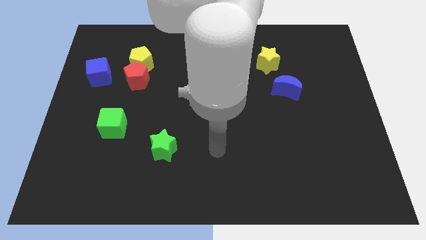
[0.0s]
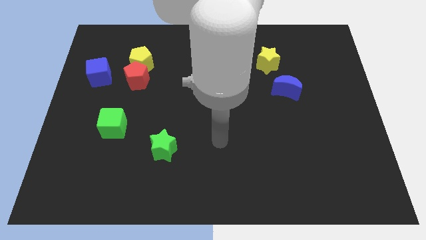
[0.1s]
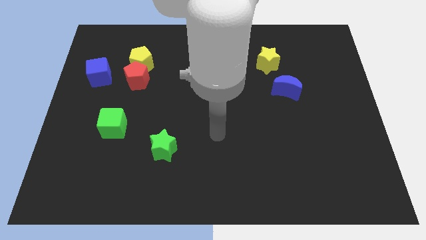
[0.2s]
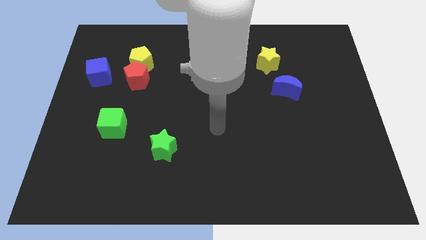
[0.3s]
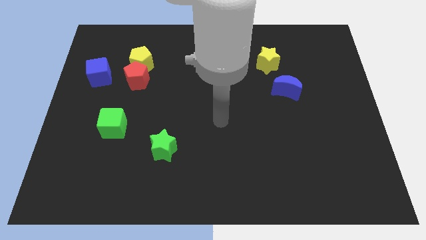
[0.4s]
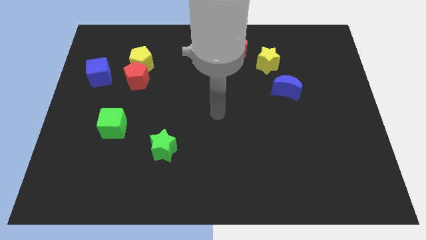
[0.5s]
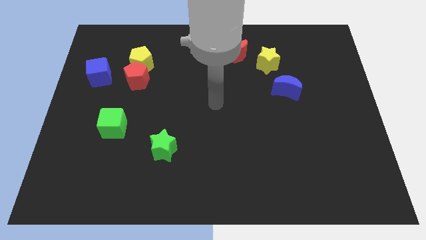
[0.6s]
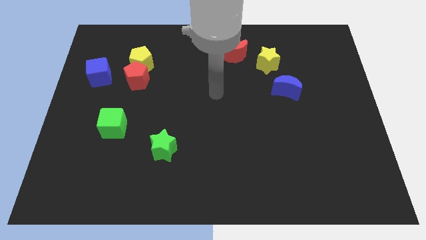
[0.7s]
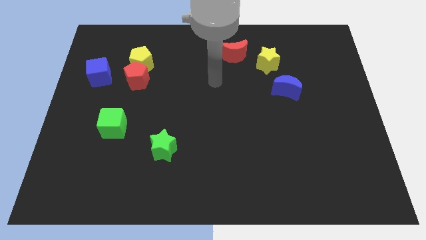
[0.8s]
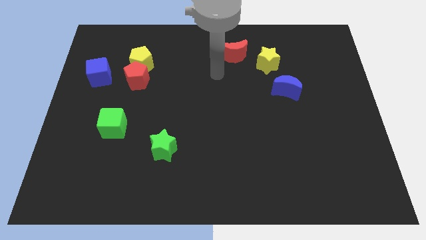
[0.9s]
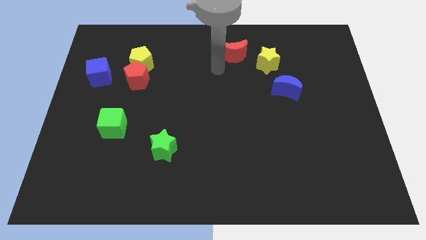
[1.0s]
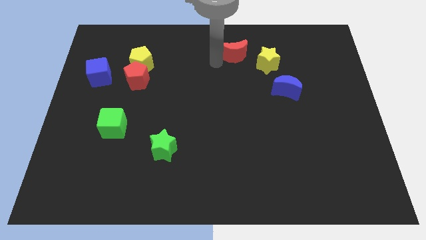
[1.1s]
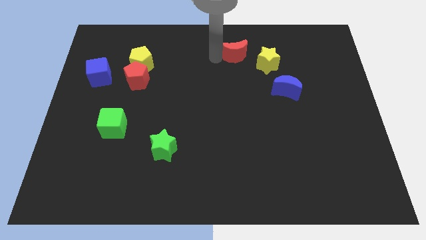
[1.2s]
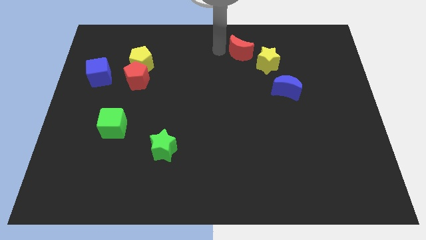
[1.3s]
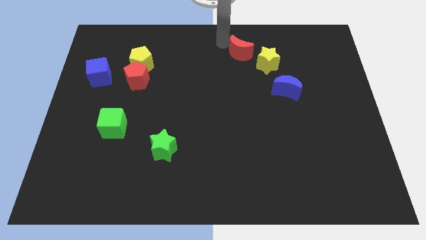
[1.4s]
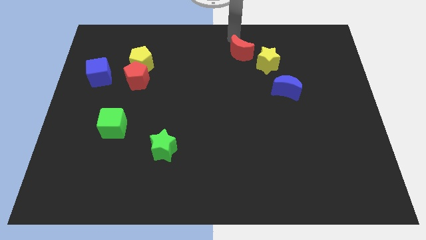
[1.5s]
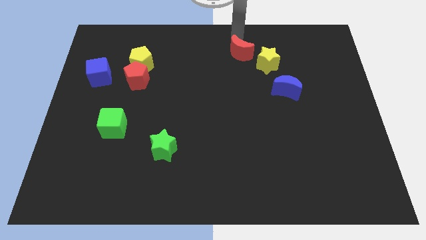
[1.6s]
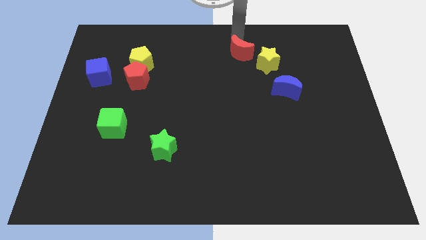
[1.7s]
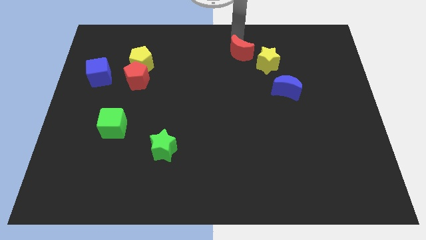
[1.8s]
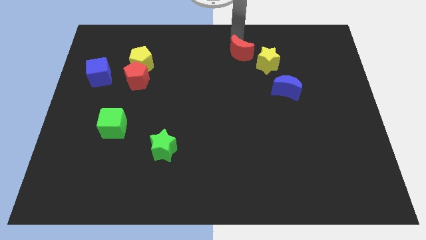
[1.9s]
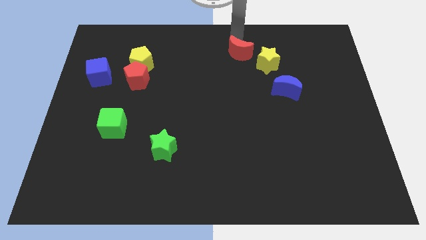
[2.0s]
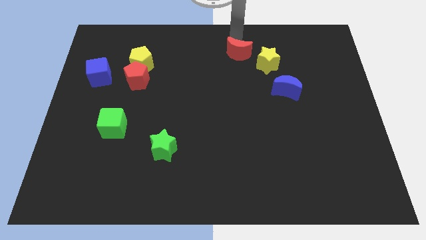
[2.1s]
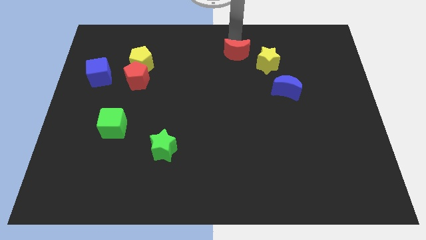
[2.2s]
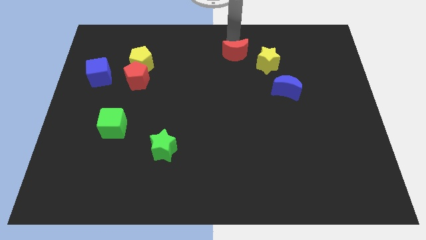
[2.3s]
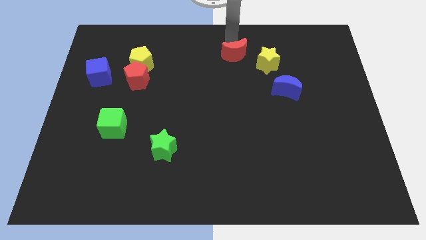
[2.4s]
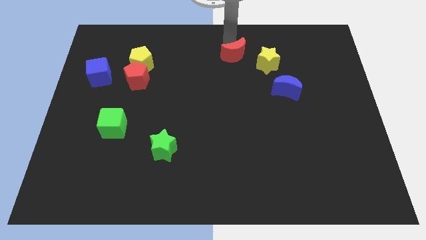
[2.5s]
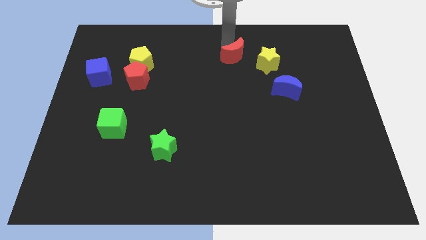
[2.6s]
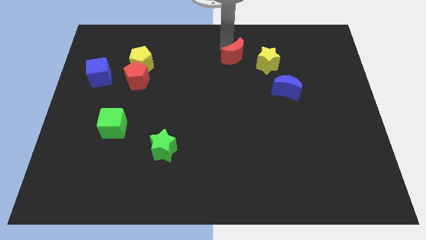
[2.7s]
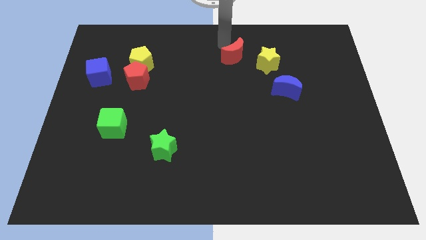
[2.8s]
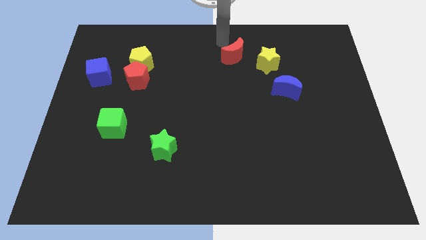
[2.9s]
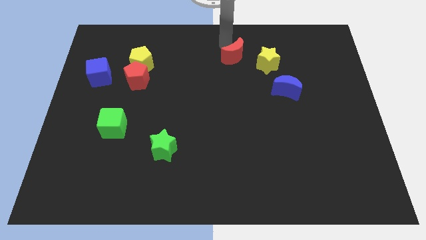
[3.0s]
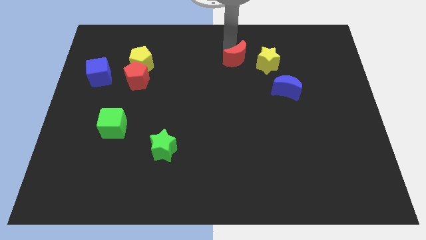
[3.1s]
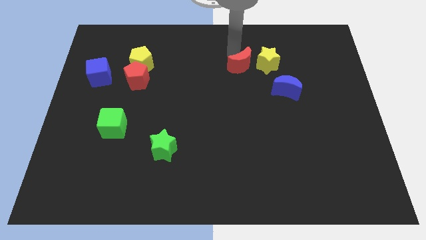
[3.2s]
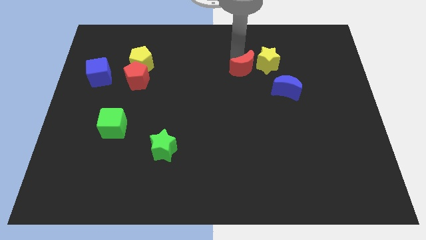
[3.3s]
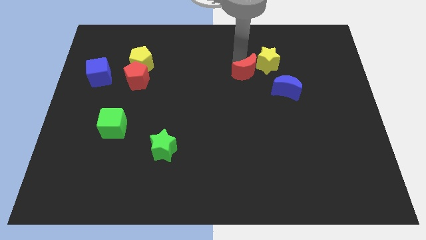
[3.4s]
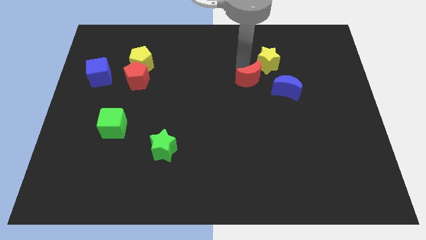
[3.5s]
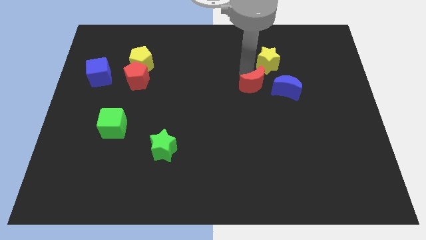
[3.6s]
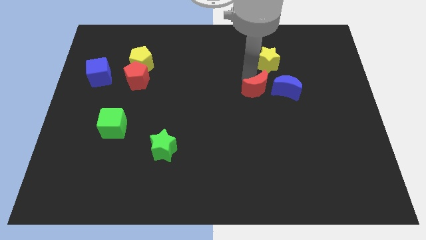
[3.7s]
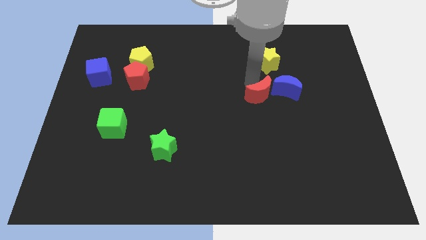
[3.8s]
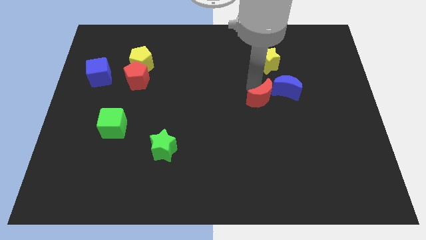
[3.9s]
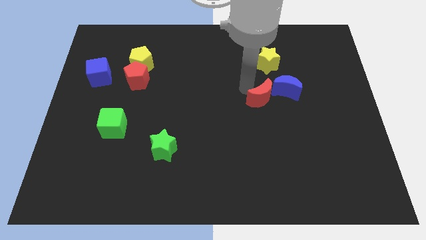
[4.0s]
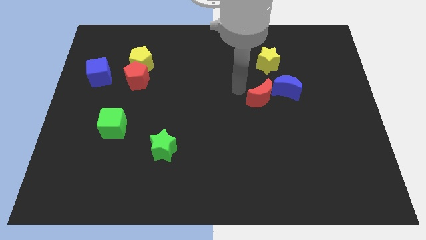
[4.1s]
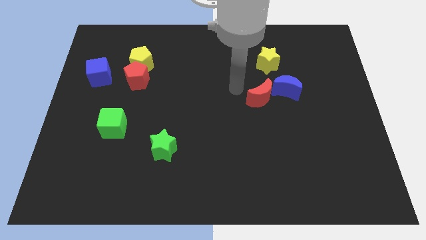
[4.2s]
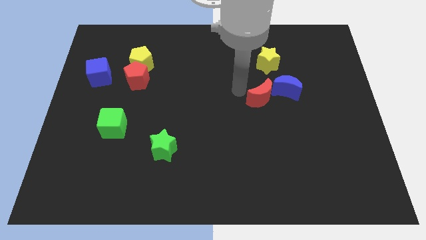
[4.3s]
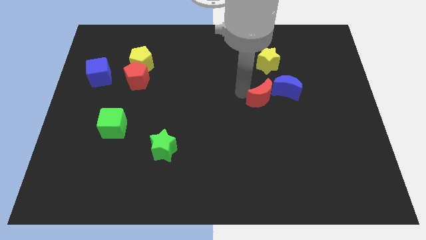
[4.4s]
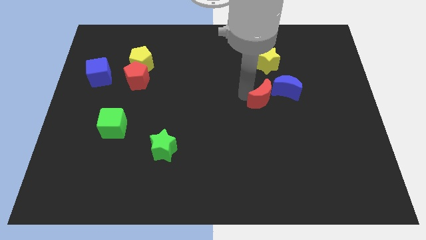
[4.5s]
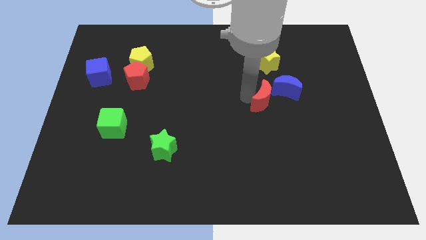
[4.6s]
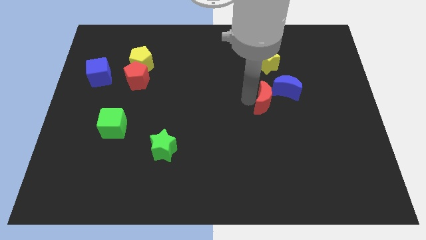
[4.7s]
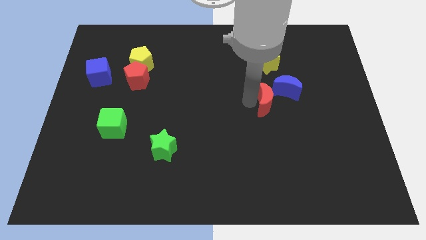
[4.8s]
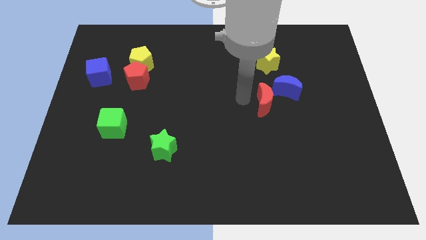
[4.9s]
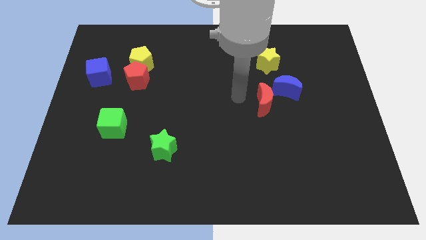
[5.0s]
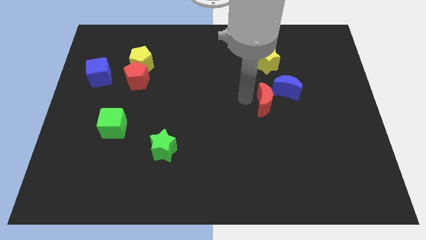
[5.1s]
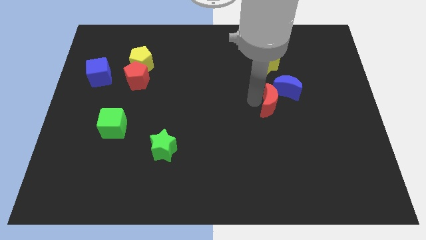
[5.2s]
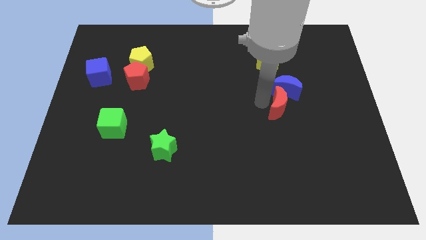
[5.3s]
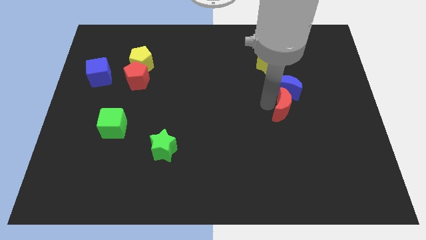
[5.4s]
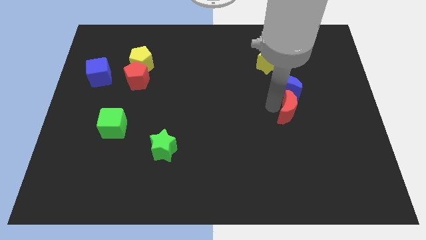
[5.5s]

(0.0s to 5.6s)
push the red moon downwards and to the right

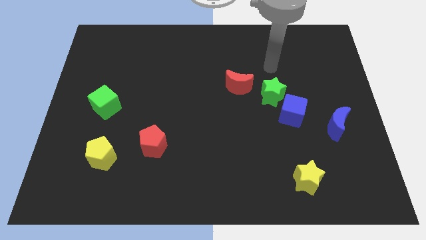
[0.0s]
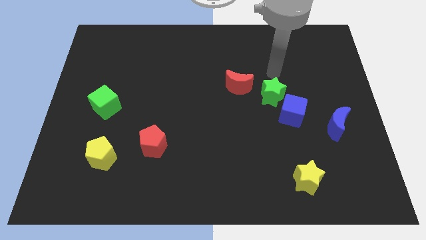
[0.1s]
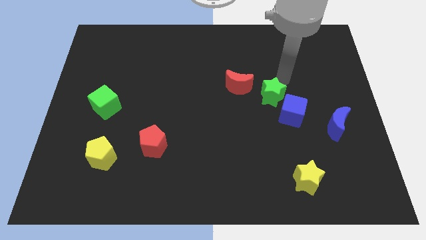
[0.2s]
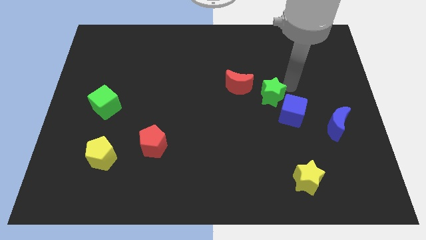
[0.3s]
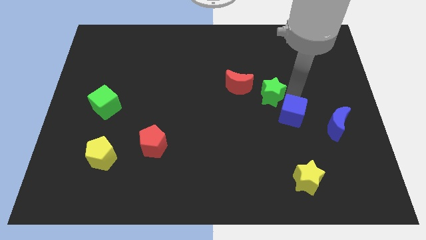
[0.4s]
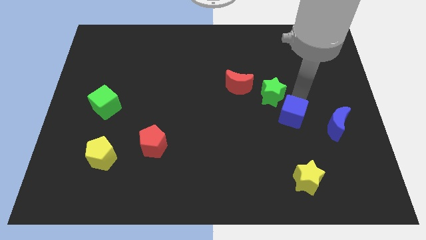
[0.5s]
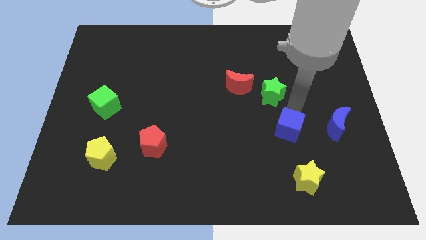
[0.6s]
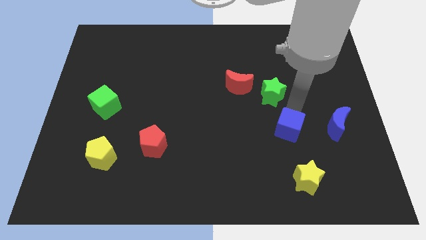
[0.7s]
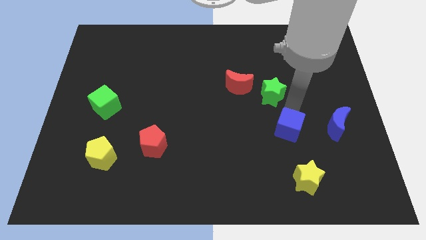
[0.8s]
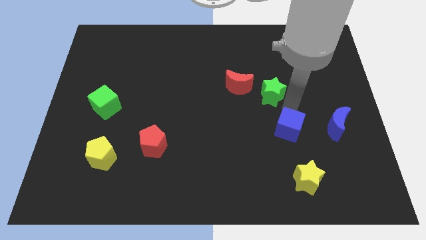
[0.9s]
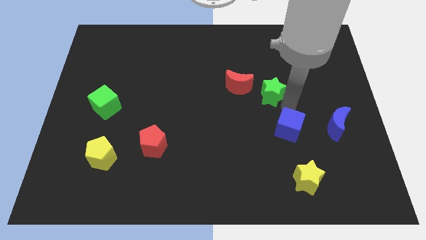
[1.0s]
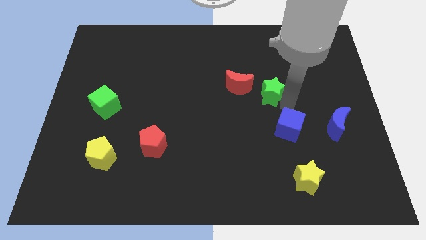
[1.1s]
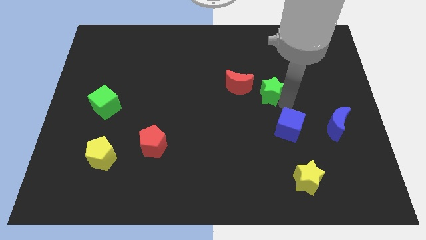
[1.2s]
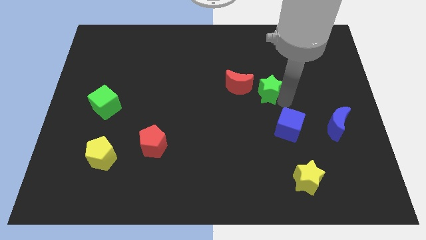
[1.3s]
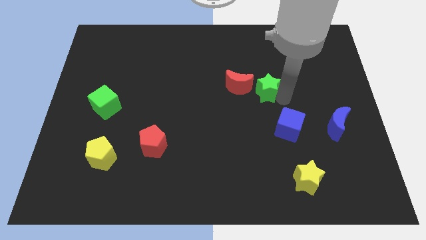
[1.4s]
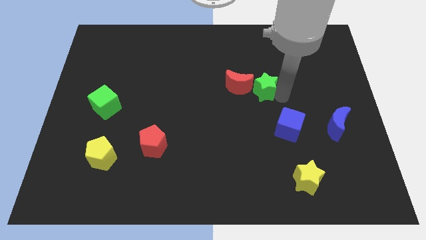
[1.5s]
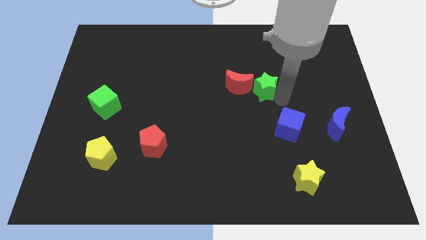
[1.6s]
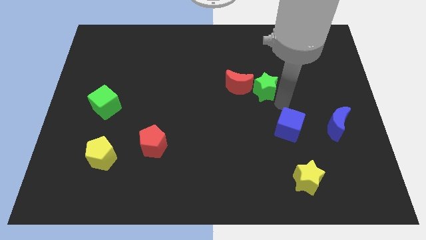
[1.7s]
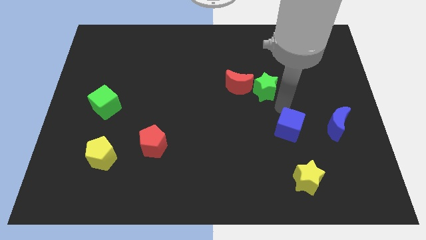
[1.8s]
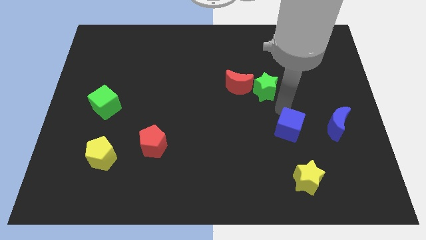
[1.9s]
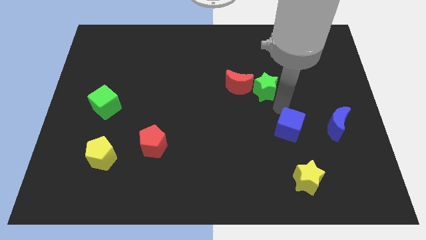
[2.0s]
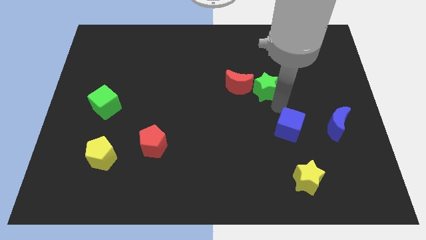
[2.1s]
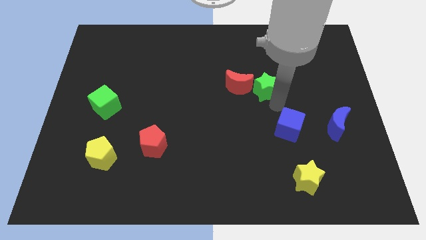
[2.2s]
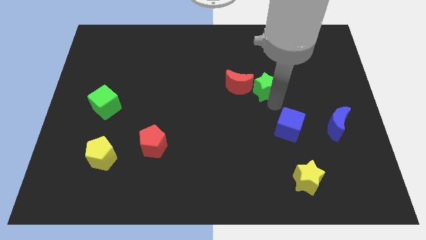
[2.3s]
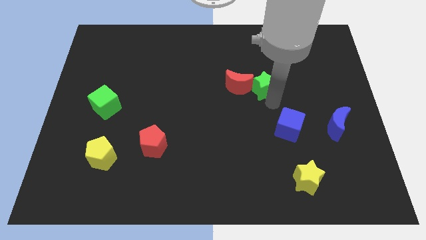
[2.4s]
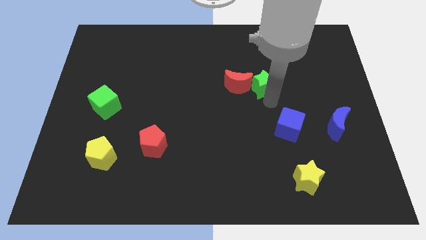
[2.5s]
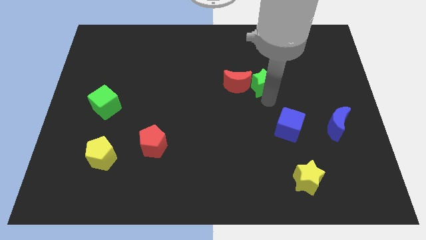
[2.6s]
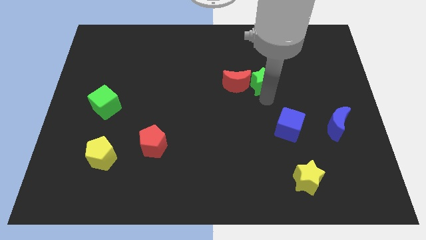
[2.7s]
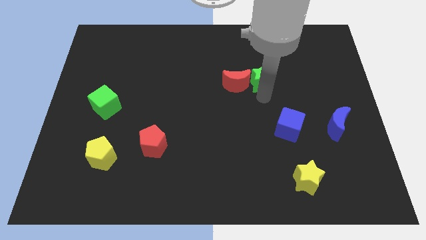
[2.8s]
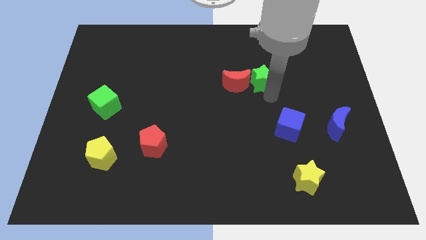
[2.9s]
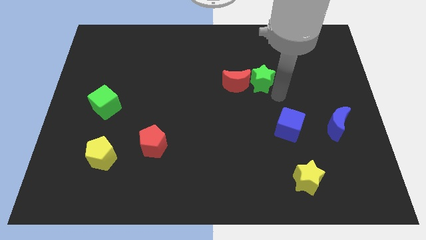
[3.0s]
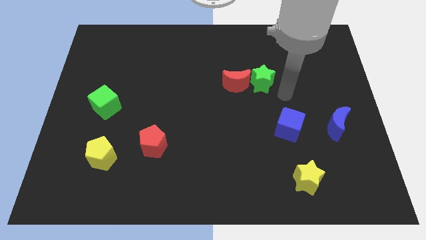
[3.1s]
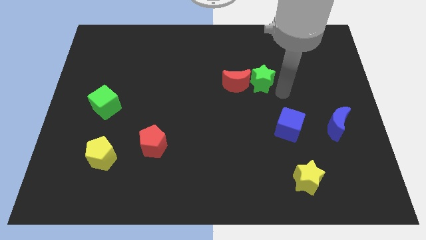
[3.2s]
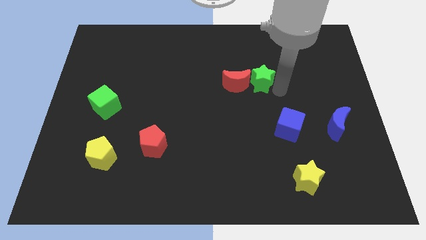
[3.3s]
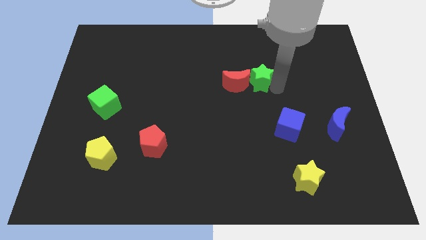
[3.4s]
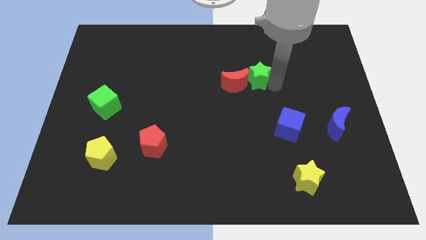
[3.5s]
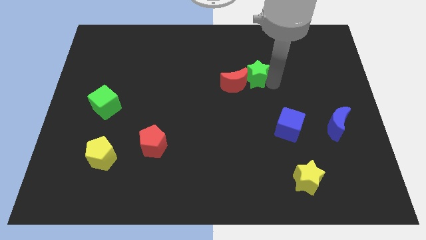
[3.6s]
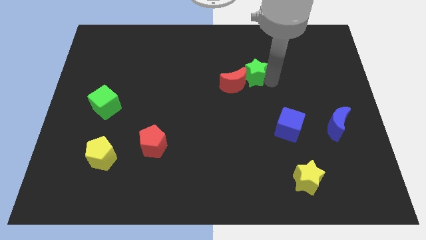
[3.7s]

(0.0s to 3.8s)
move the green star diagonally upwards and to the left somewhat
